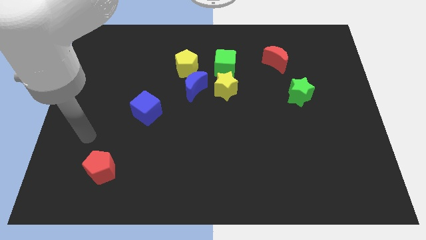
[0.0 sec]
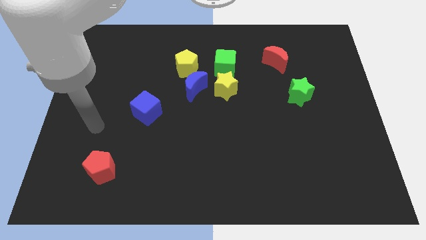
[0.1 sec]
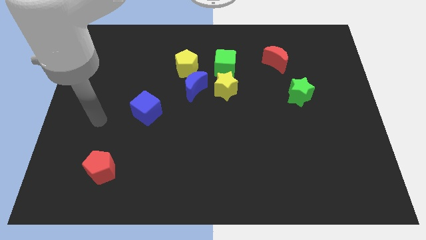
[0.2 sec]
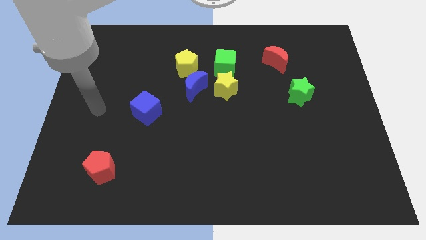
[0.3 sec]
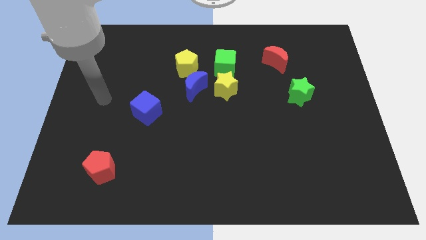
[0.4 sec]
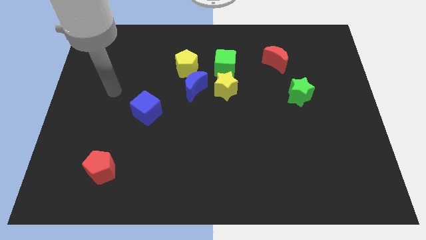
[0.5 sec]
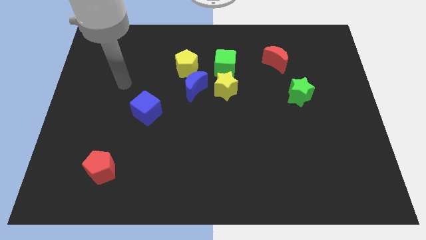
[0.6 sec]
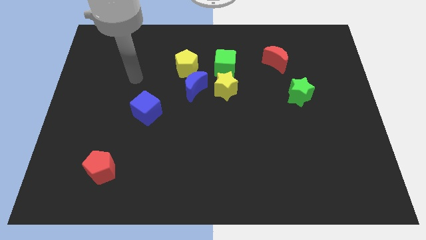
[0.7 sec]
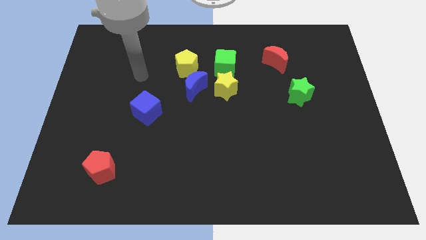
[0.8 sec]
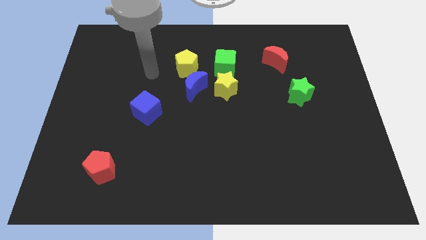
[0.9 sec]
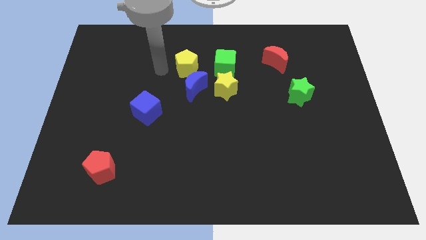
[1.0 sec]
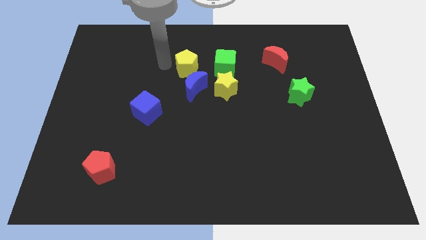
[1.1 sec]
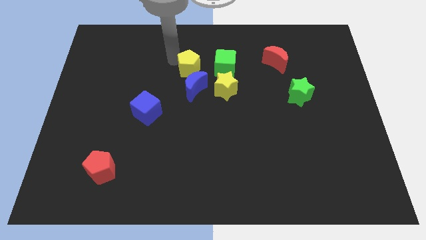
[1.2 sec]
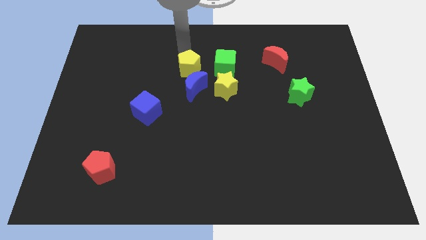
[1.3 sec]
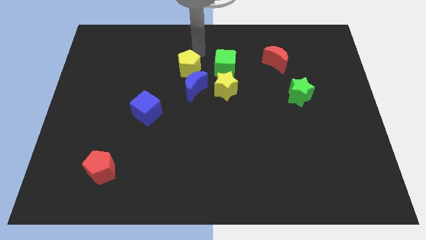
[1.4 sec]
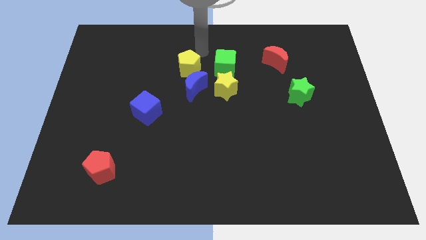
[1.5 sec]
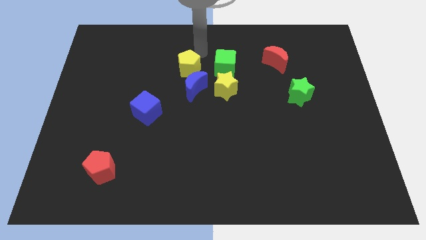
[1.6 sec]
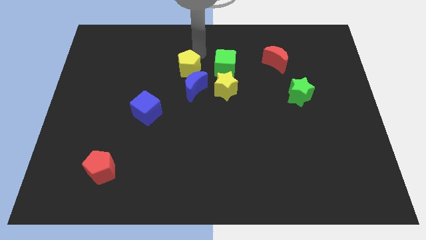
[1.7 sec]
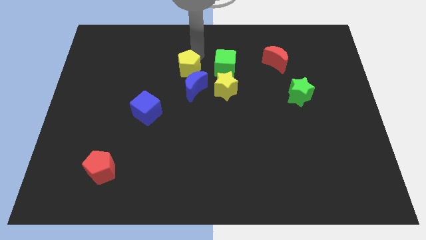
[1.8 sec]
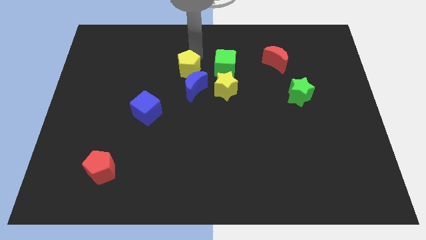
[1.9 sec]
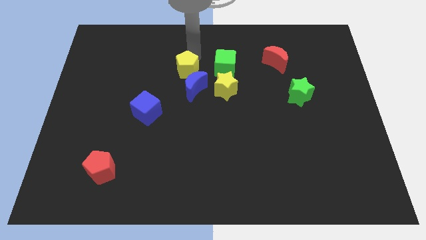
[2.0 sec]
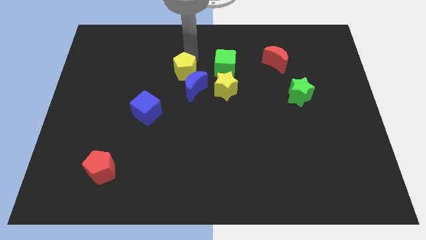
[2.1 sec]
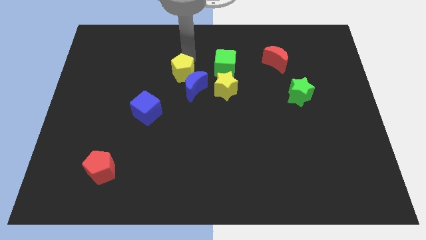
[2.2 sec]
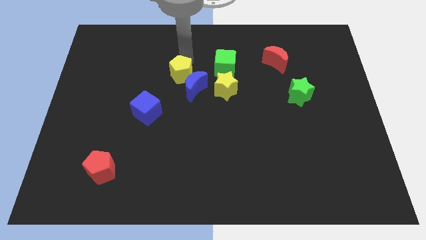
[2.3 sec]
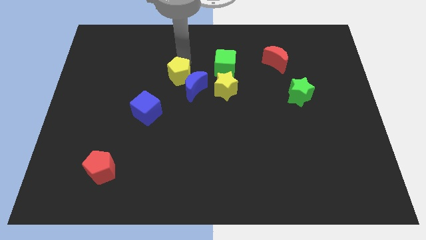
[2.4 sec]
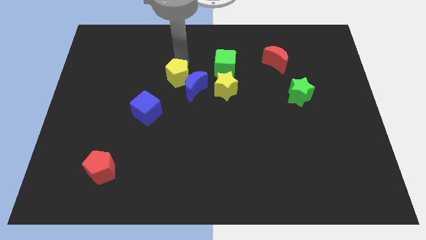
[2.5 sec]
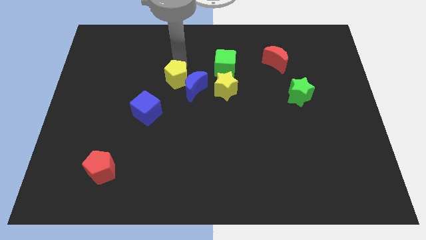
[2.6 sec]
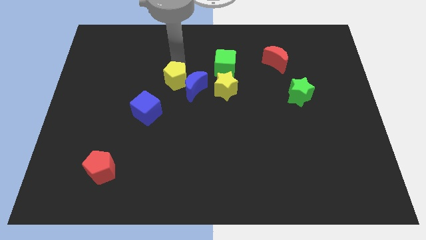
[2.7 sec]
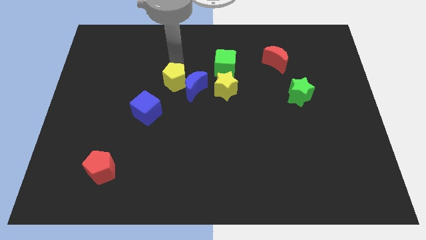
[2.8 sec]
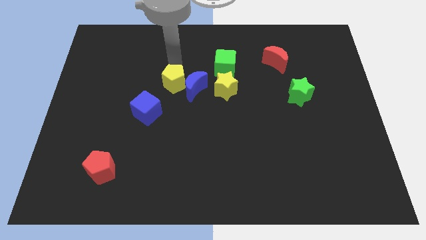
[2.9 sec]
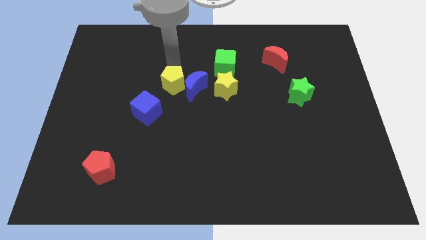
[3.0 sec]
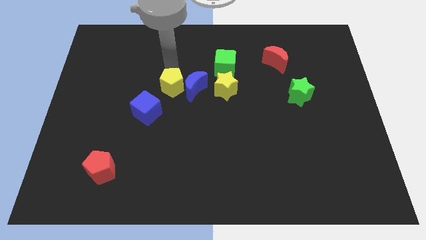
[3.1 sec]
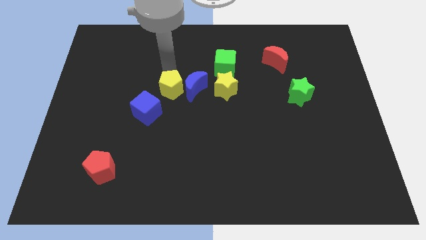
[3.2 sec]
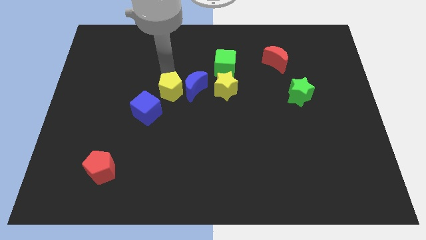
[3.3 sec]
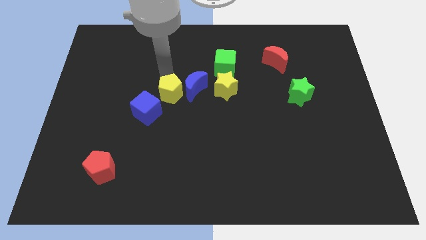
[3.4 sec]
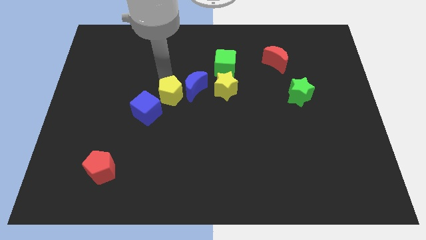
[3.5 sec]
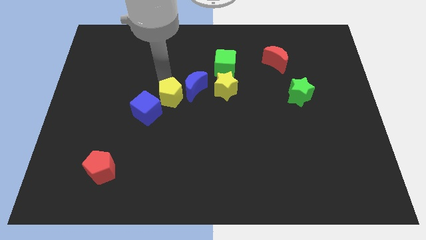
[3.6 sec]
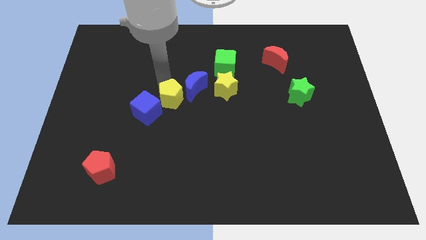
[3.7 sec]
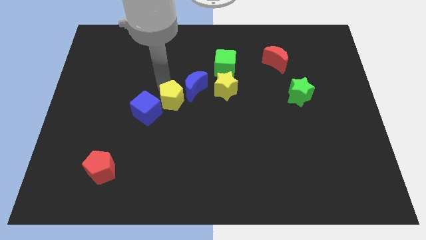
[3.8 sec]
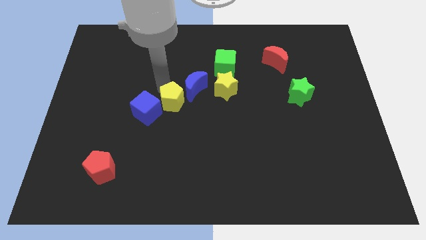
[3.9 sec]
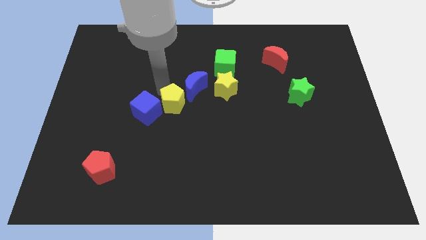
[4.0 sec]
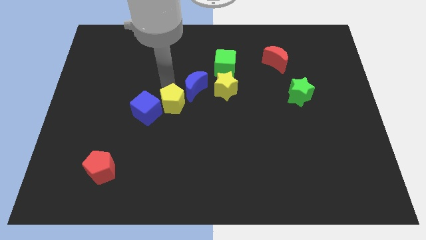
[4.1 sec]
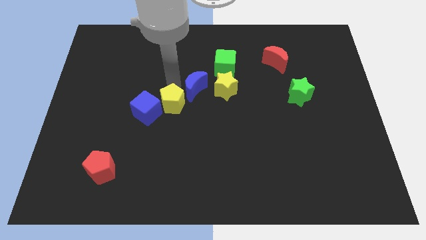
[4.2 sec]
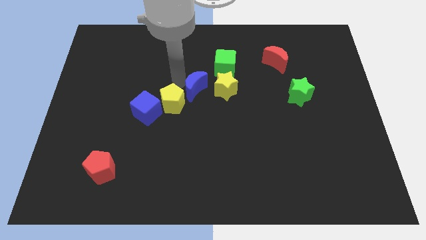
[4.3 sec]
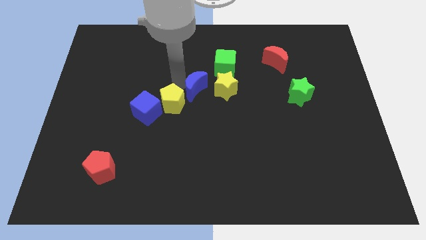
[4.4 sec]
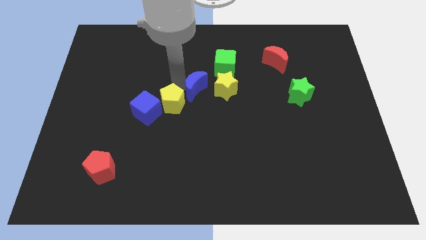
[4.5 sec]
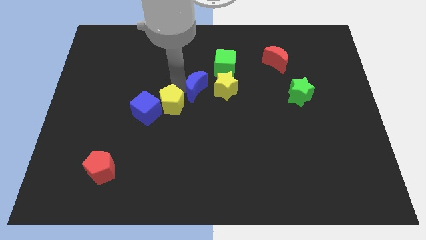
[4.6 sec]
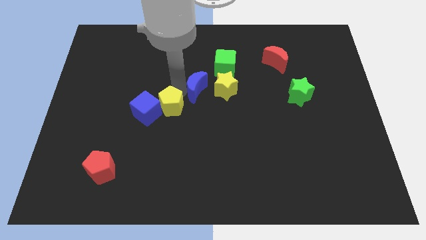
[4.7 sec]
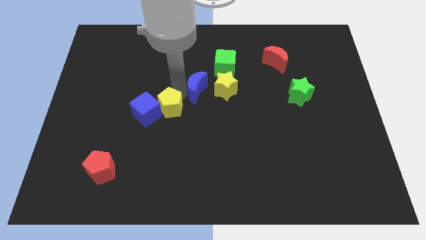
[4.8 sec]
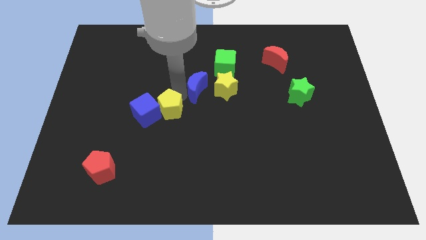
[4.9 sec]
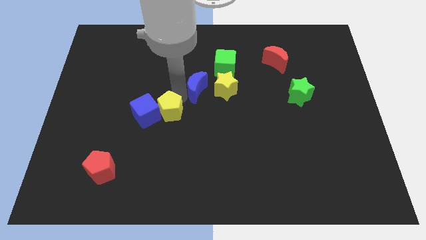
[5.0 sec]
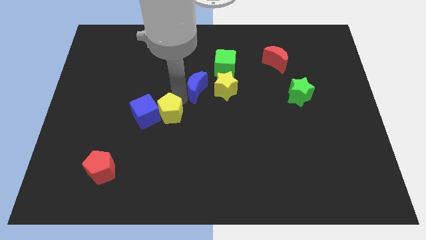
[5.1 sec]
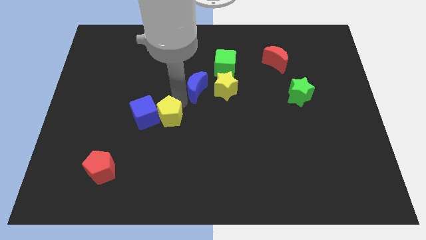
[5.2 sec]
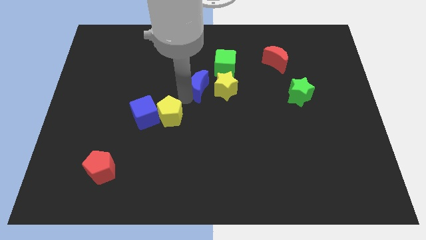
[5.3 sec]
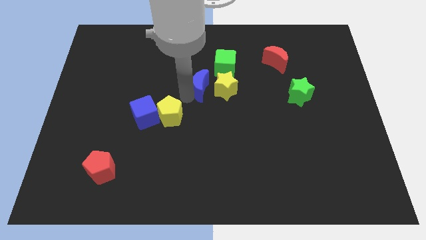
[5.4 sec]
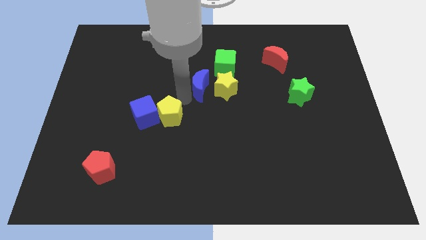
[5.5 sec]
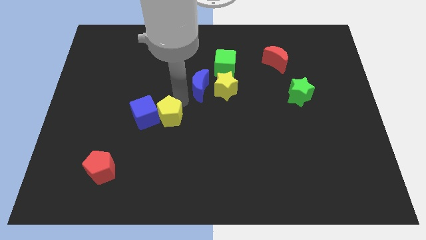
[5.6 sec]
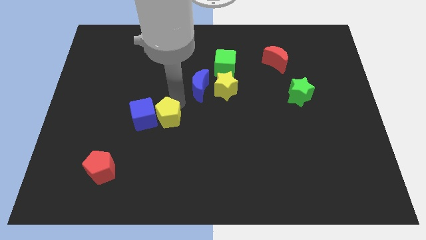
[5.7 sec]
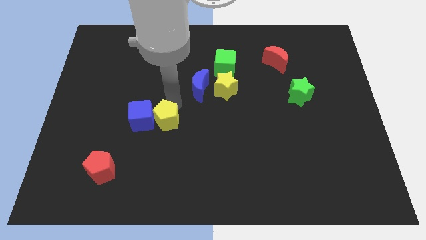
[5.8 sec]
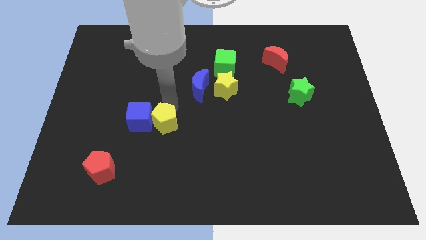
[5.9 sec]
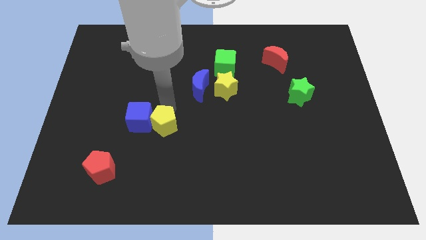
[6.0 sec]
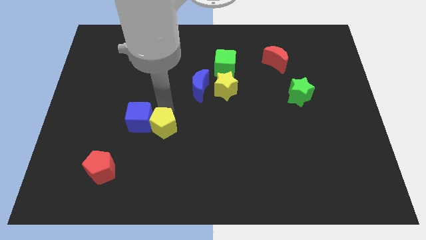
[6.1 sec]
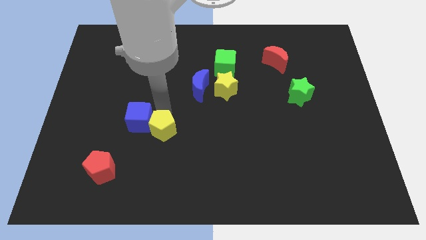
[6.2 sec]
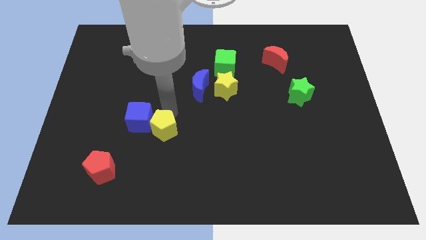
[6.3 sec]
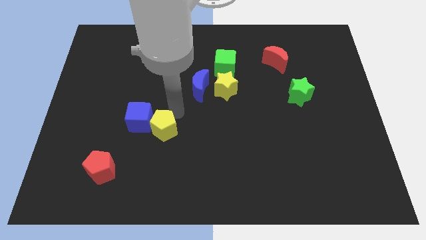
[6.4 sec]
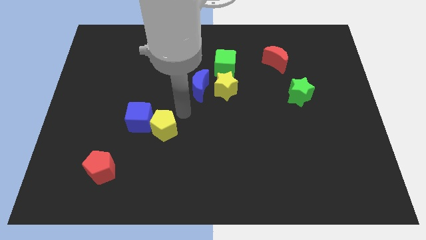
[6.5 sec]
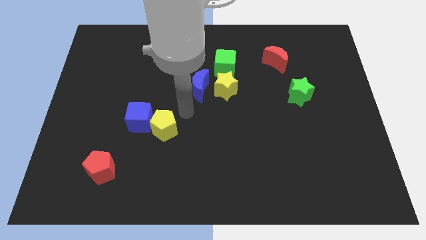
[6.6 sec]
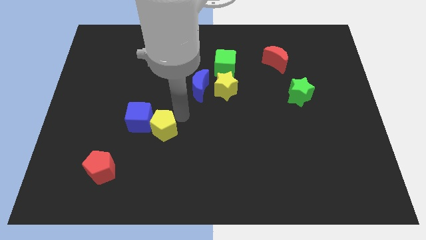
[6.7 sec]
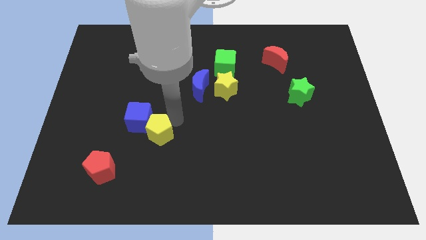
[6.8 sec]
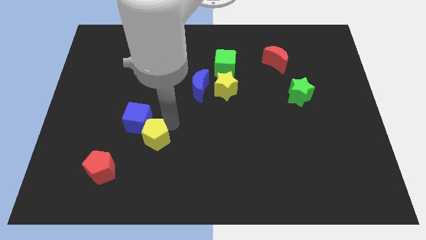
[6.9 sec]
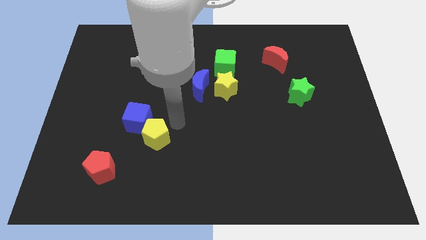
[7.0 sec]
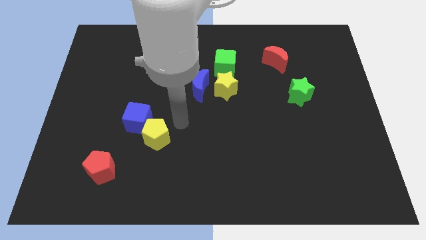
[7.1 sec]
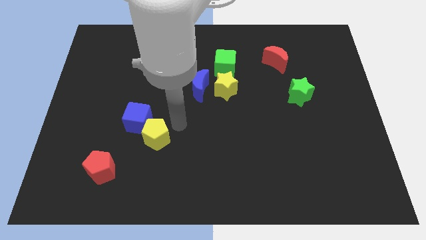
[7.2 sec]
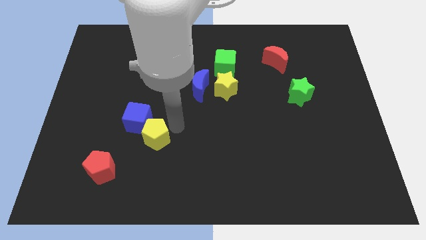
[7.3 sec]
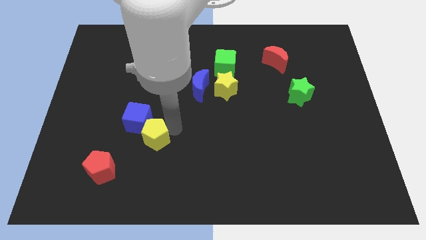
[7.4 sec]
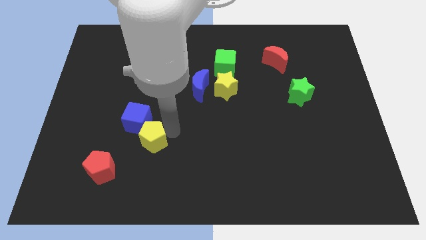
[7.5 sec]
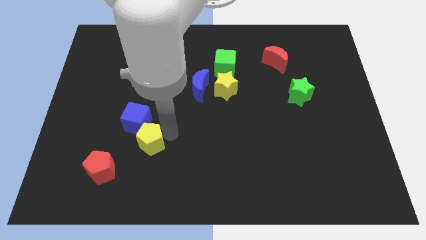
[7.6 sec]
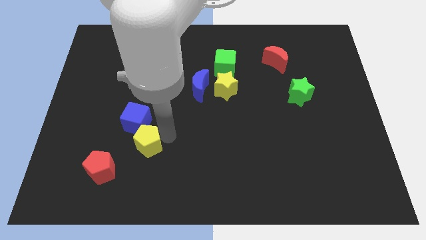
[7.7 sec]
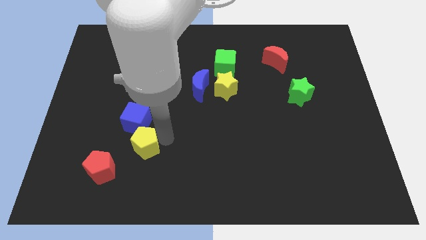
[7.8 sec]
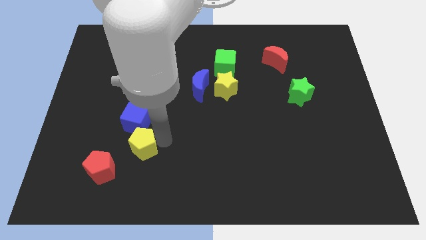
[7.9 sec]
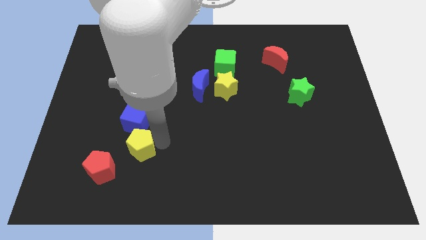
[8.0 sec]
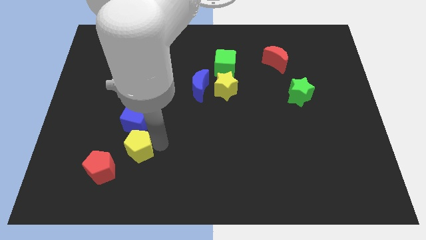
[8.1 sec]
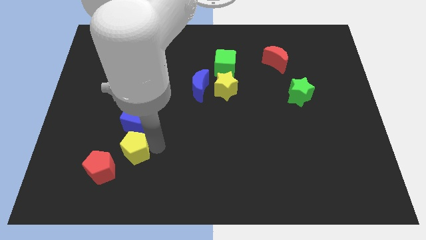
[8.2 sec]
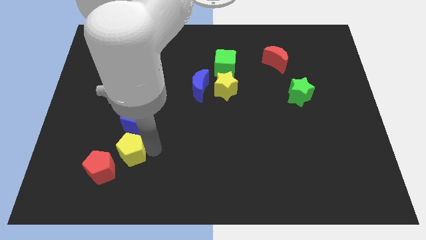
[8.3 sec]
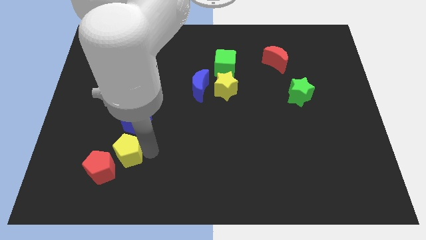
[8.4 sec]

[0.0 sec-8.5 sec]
move the yellow pentagon close to the red pentagon
